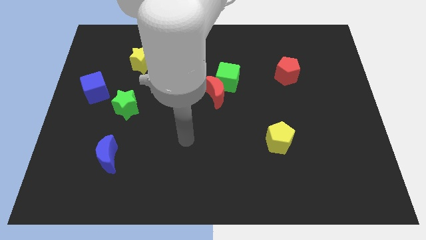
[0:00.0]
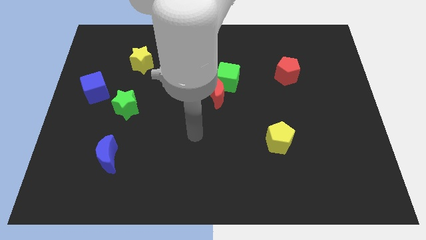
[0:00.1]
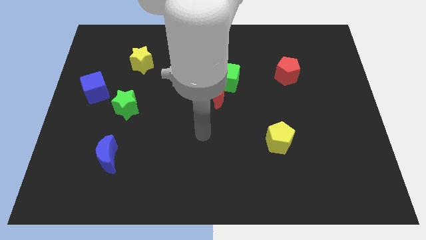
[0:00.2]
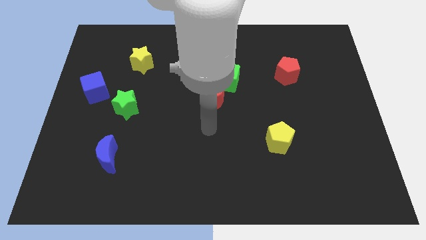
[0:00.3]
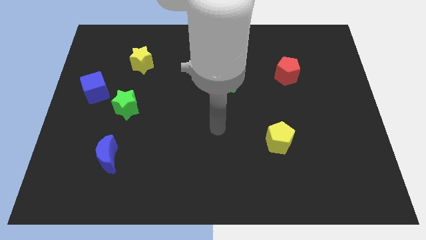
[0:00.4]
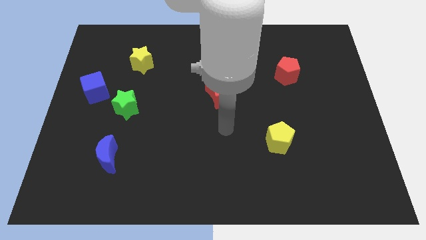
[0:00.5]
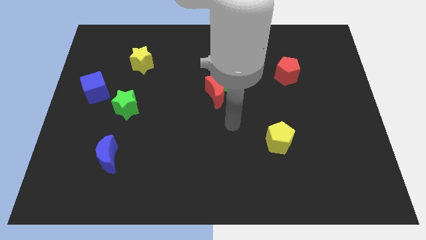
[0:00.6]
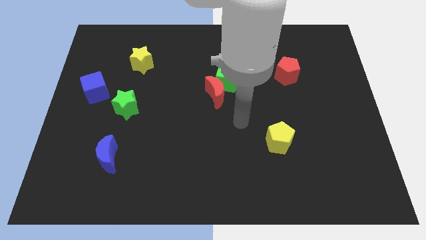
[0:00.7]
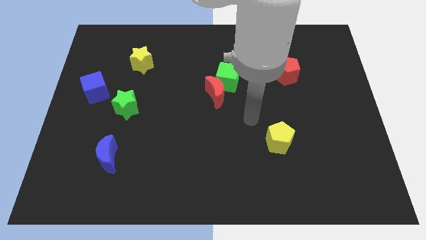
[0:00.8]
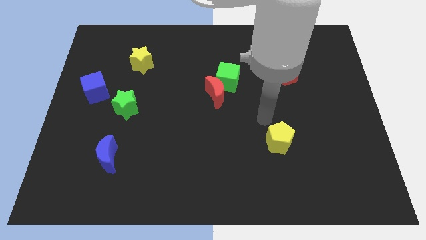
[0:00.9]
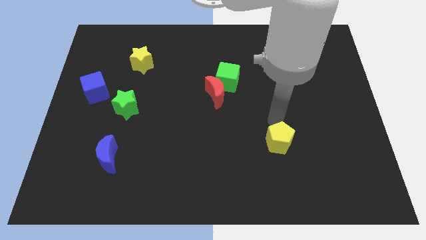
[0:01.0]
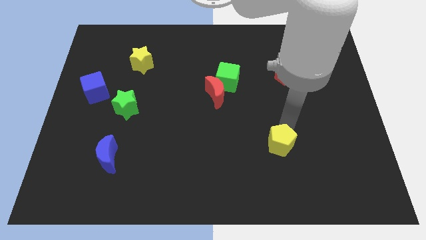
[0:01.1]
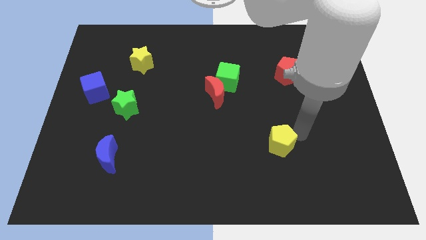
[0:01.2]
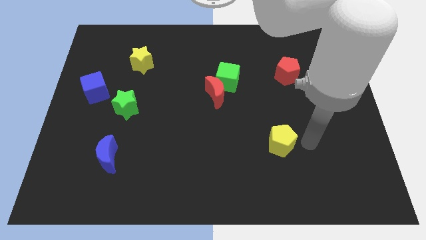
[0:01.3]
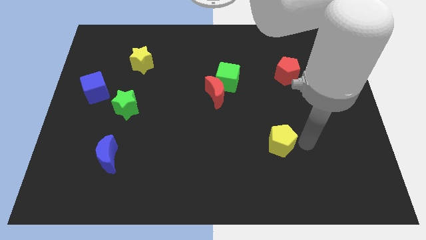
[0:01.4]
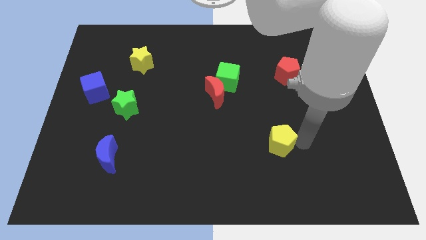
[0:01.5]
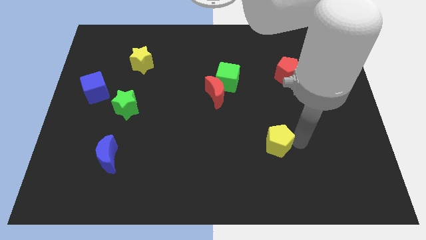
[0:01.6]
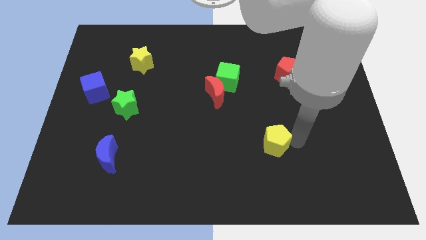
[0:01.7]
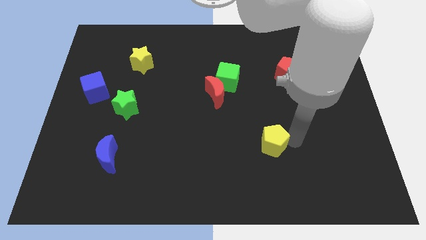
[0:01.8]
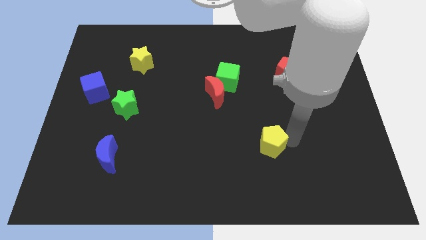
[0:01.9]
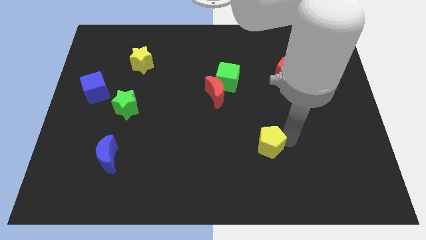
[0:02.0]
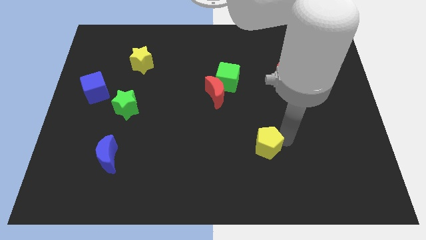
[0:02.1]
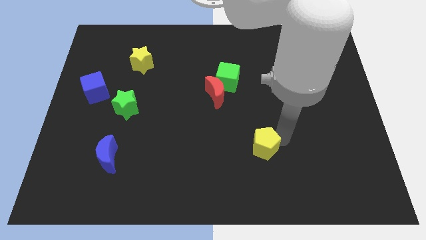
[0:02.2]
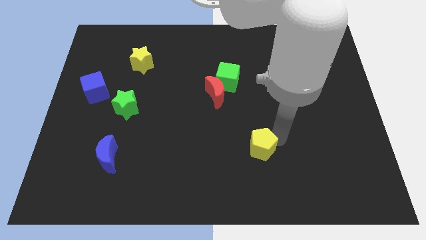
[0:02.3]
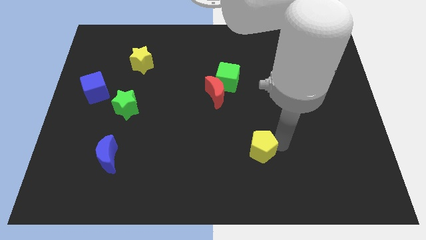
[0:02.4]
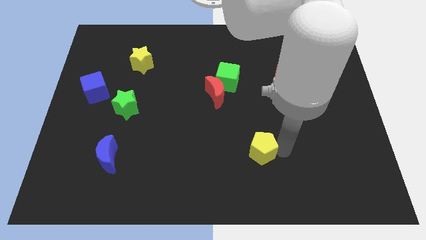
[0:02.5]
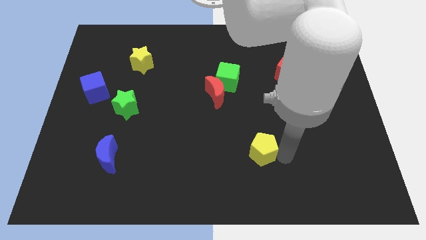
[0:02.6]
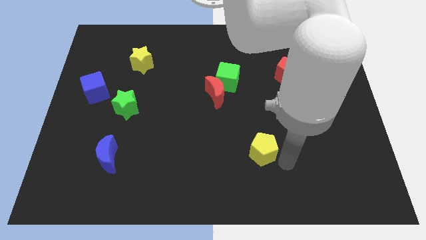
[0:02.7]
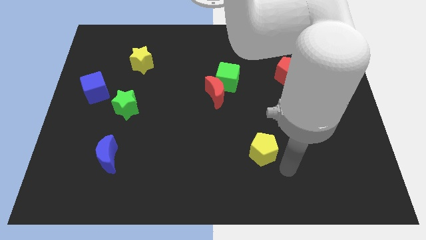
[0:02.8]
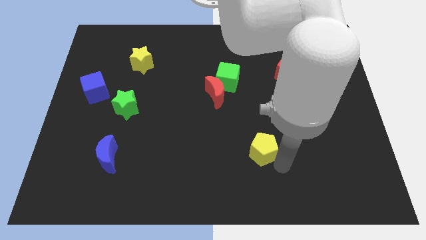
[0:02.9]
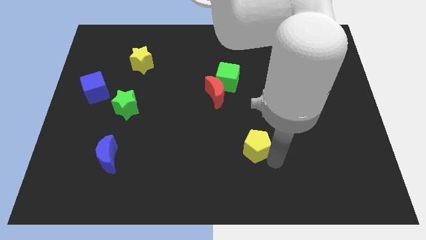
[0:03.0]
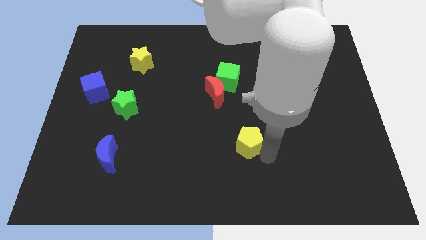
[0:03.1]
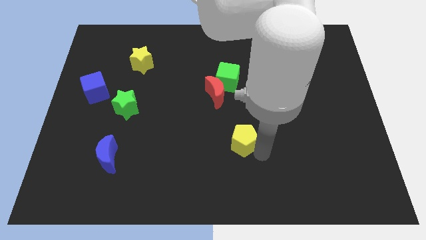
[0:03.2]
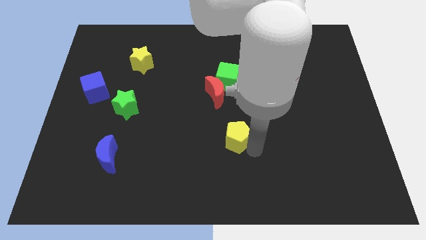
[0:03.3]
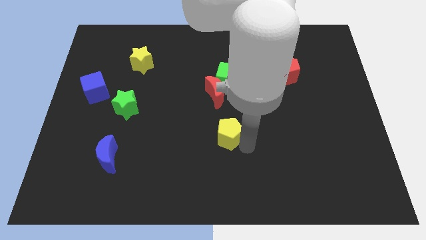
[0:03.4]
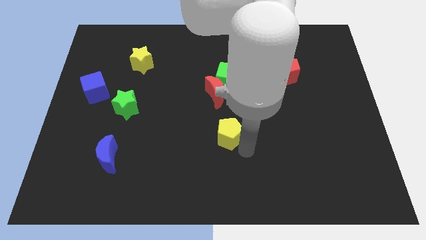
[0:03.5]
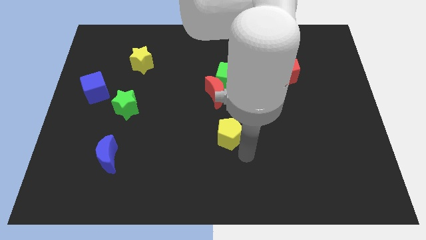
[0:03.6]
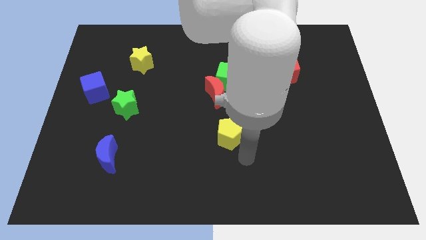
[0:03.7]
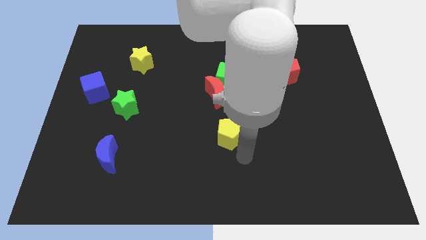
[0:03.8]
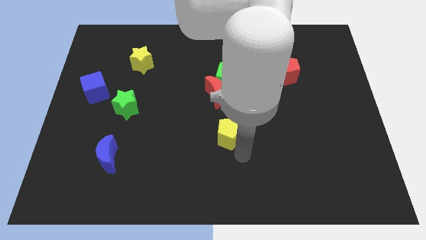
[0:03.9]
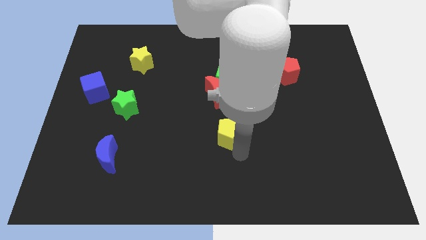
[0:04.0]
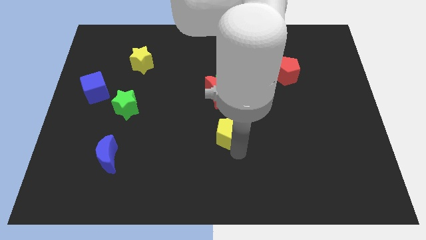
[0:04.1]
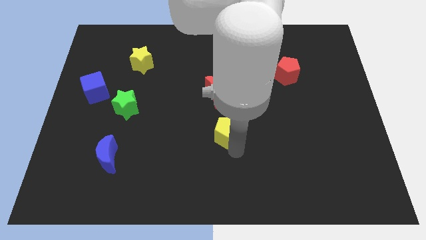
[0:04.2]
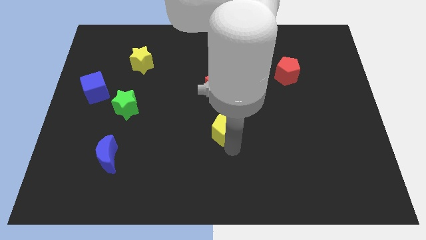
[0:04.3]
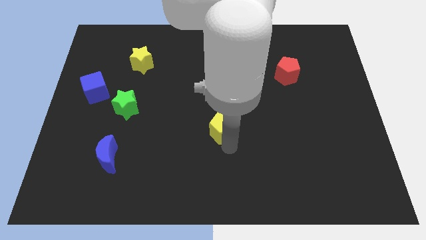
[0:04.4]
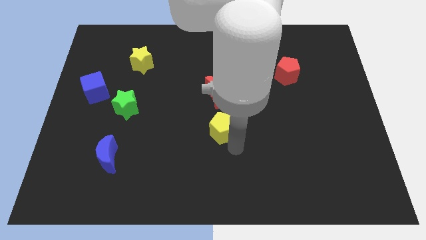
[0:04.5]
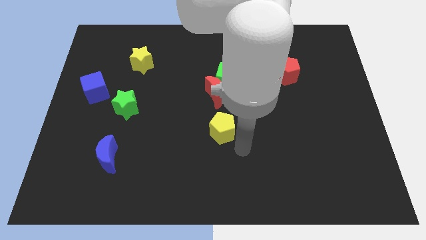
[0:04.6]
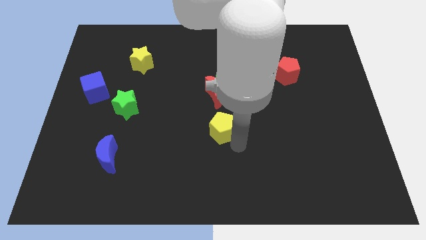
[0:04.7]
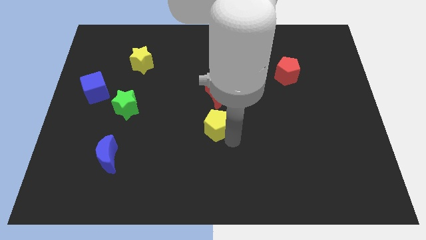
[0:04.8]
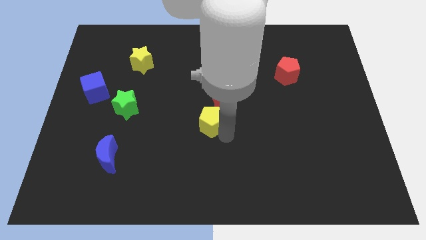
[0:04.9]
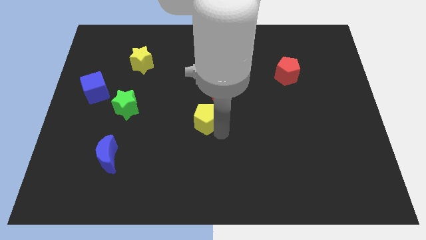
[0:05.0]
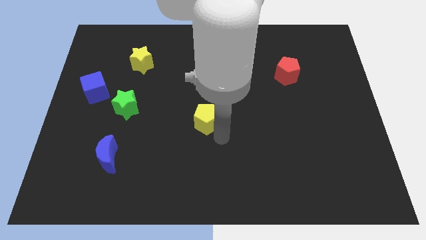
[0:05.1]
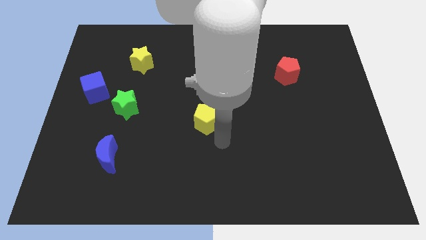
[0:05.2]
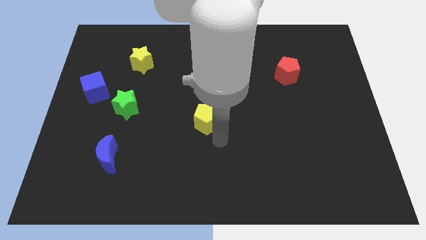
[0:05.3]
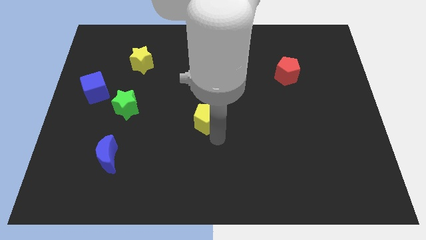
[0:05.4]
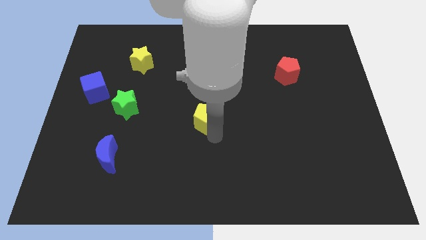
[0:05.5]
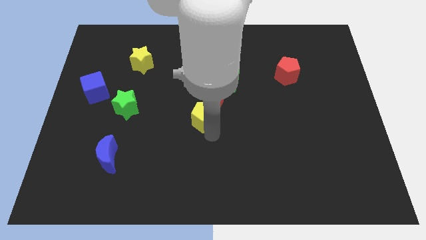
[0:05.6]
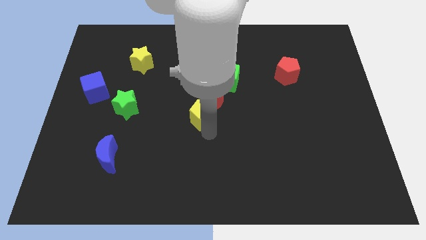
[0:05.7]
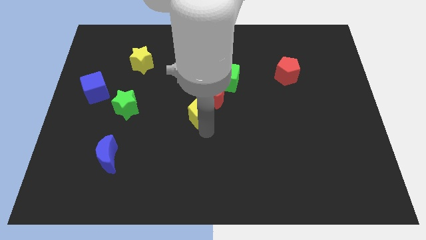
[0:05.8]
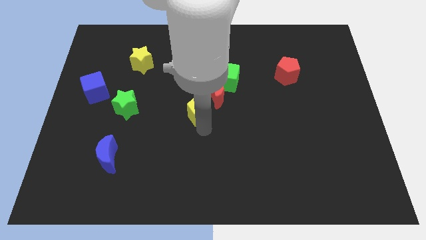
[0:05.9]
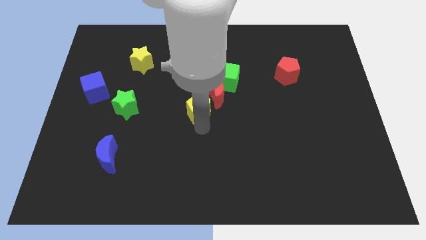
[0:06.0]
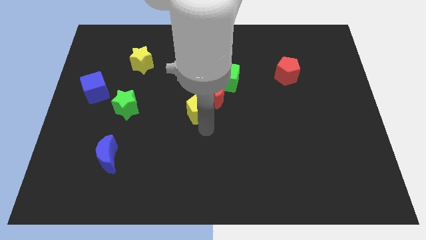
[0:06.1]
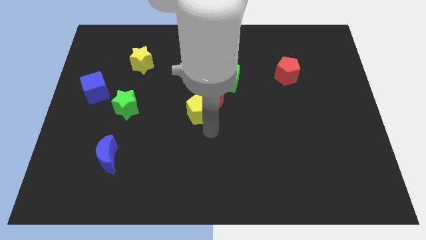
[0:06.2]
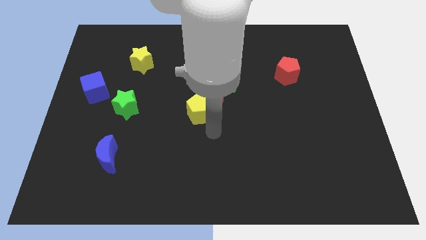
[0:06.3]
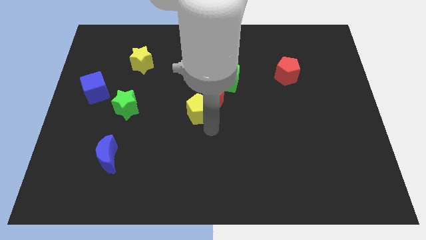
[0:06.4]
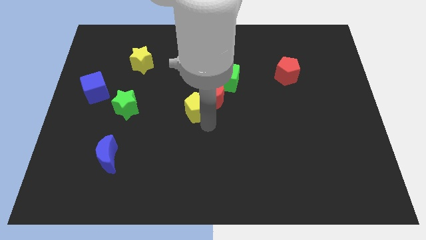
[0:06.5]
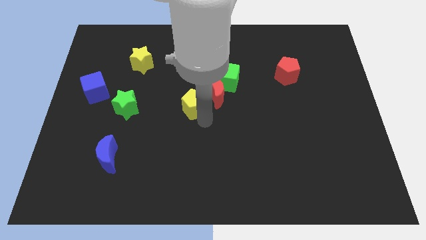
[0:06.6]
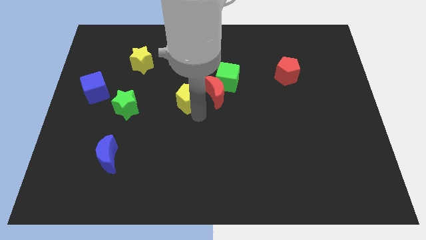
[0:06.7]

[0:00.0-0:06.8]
push the yellow pentagon upwards and then left

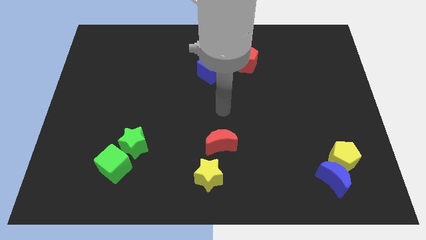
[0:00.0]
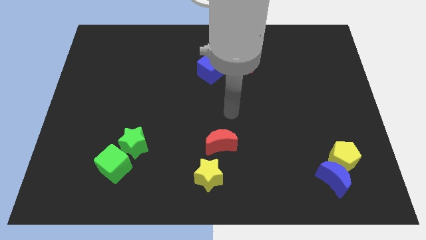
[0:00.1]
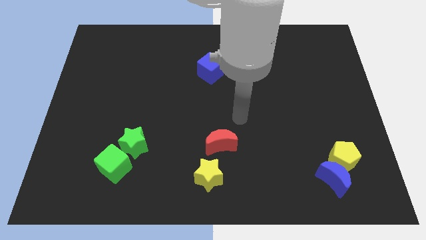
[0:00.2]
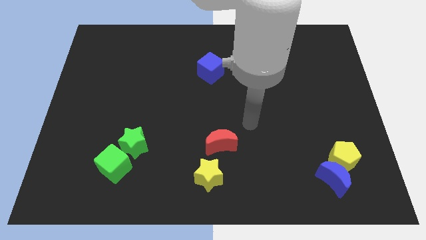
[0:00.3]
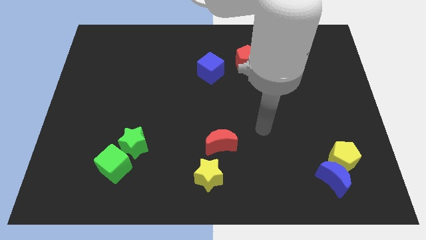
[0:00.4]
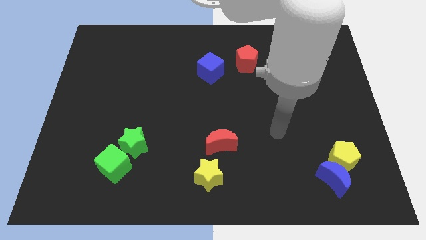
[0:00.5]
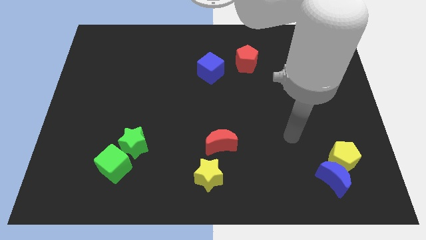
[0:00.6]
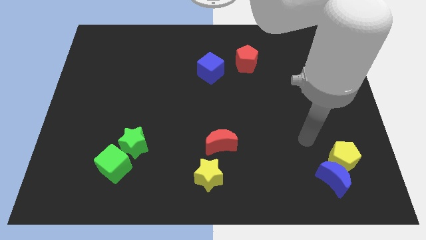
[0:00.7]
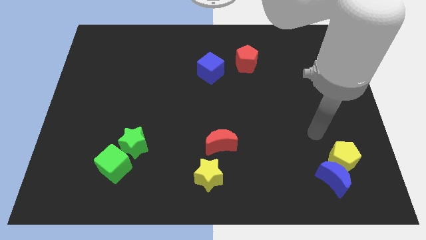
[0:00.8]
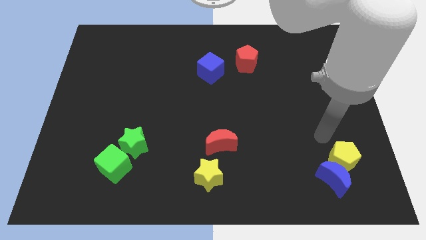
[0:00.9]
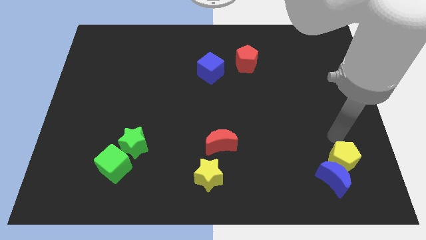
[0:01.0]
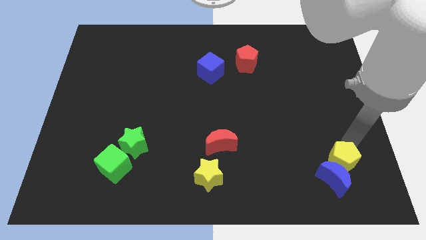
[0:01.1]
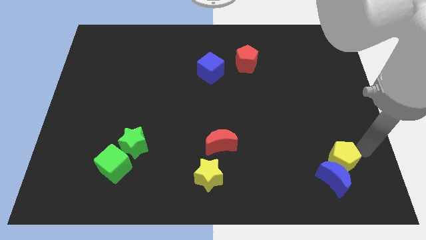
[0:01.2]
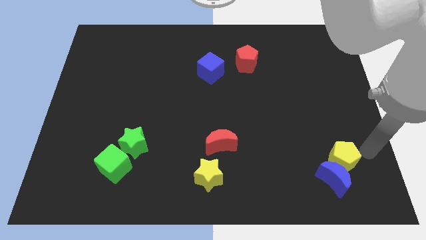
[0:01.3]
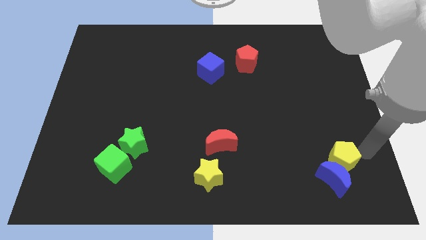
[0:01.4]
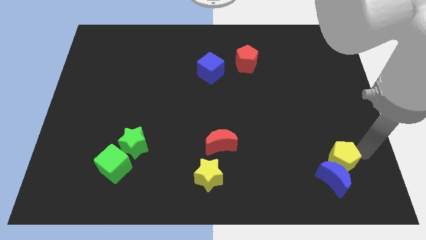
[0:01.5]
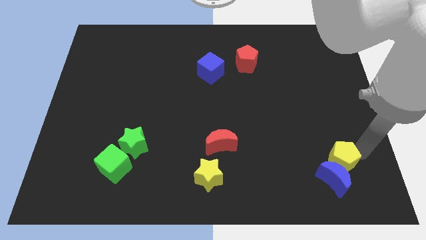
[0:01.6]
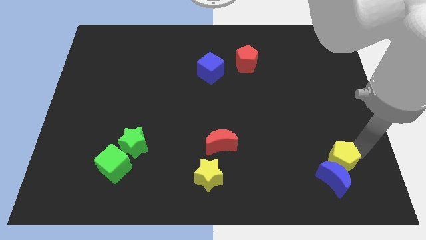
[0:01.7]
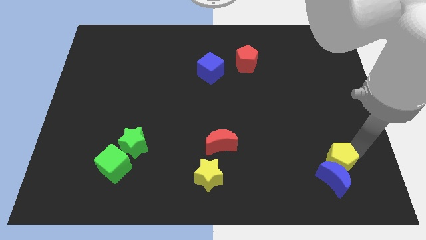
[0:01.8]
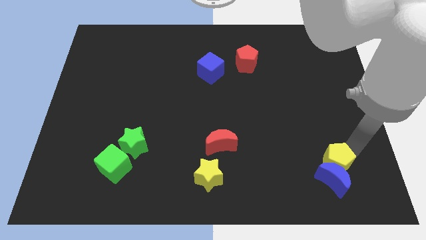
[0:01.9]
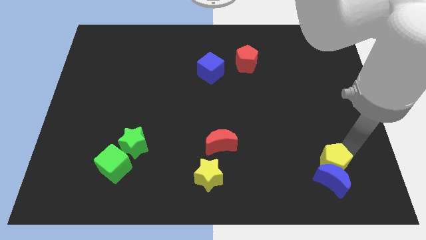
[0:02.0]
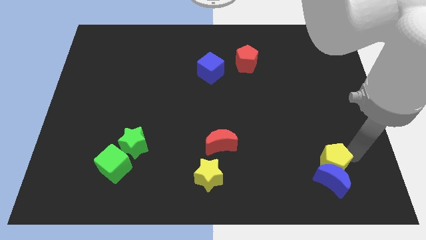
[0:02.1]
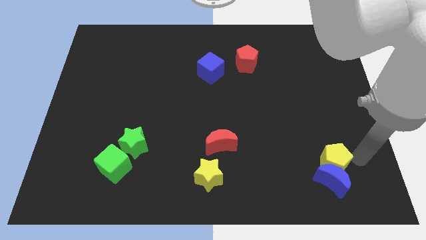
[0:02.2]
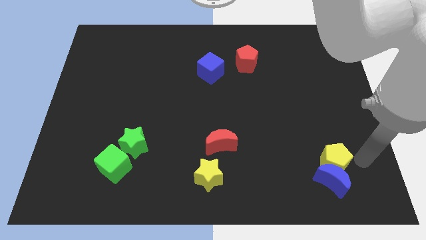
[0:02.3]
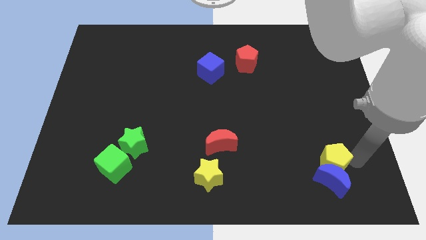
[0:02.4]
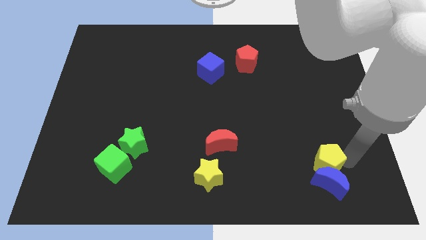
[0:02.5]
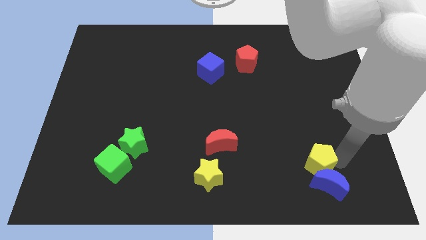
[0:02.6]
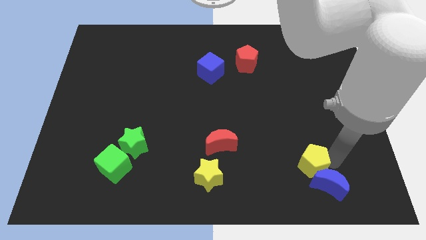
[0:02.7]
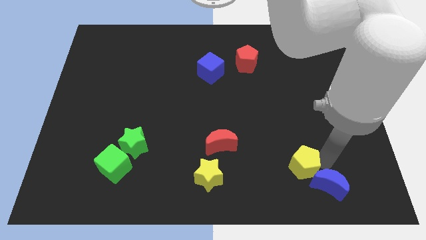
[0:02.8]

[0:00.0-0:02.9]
slide the yellow pentagon to the left a bit
